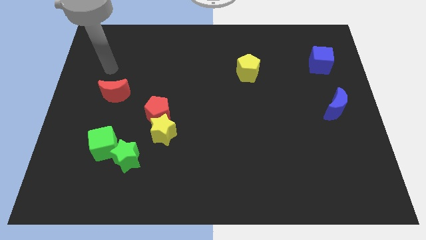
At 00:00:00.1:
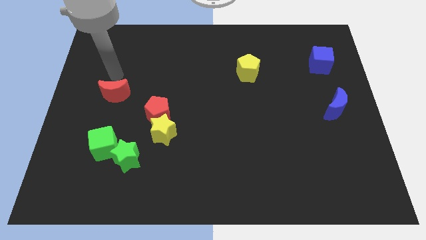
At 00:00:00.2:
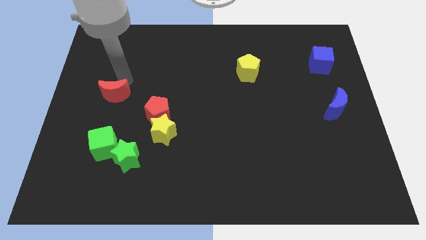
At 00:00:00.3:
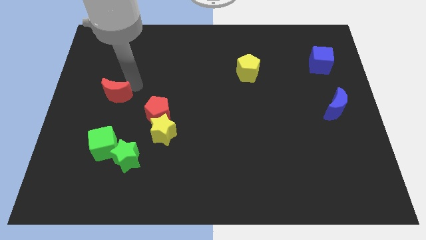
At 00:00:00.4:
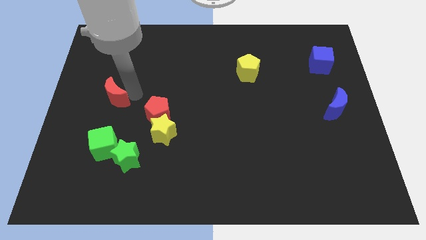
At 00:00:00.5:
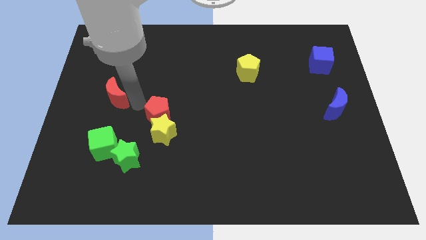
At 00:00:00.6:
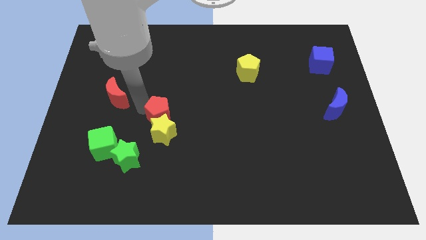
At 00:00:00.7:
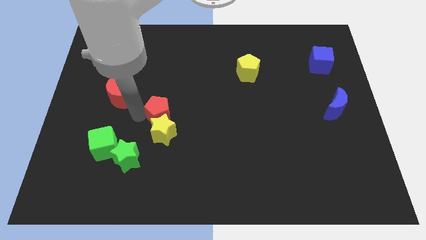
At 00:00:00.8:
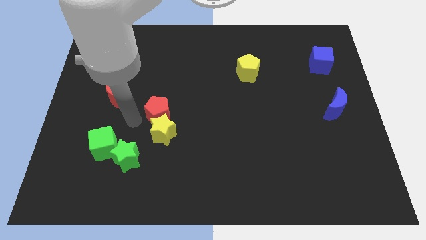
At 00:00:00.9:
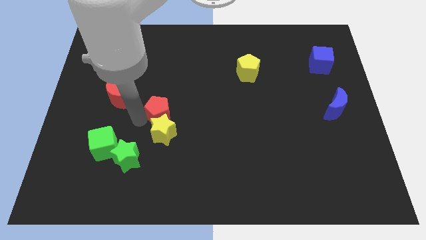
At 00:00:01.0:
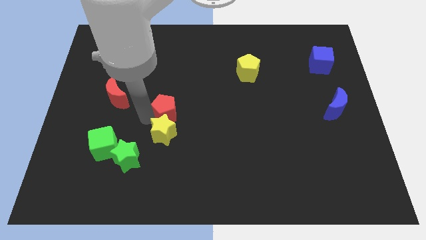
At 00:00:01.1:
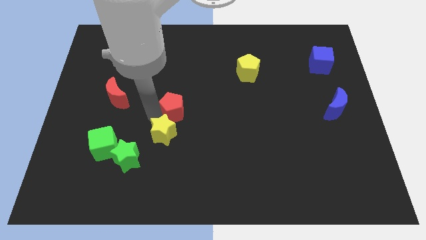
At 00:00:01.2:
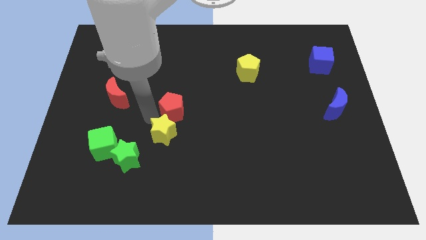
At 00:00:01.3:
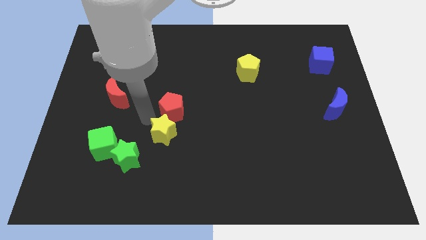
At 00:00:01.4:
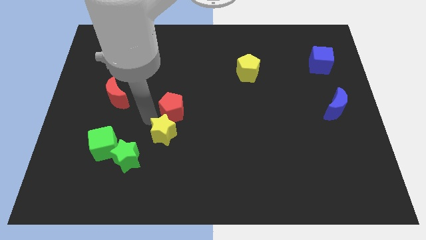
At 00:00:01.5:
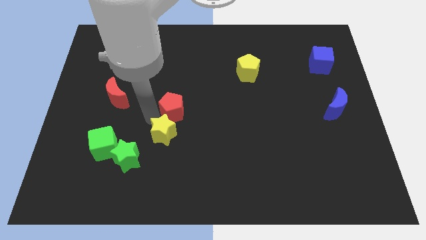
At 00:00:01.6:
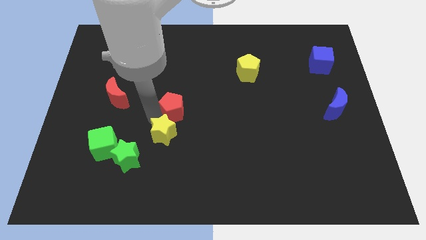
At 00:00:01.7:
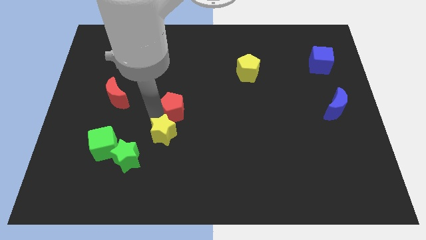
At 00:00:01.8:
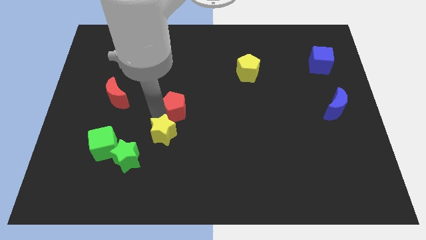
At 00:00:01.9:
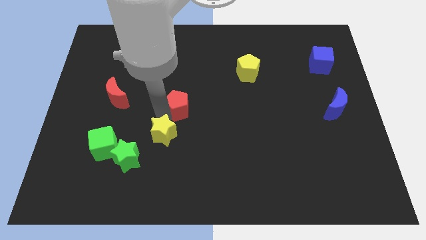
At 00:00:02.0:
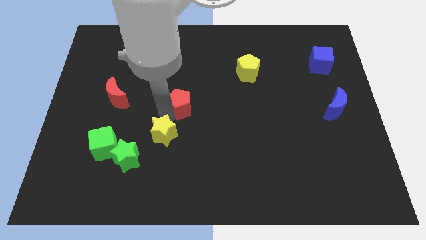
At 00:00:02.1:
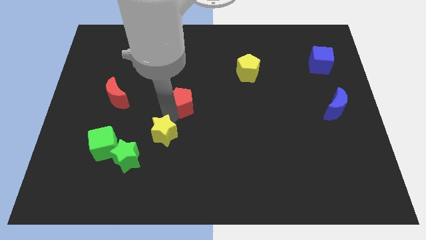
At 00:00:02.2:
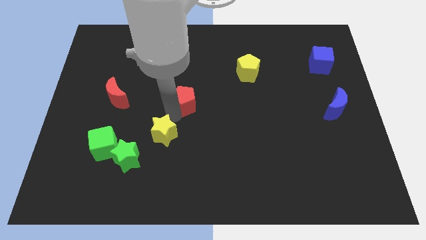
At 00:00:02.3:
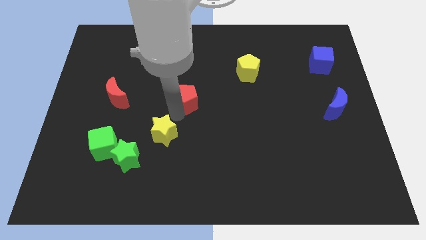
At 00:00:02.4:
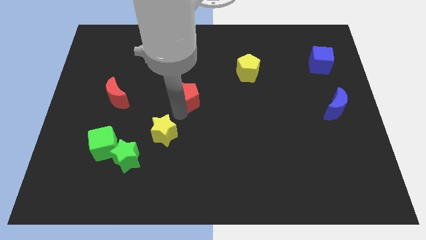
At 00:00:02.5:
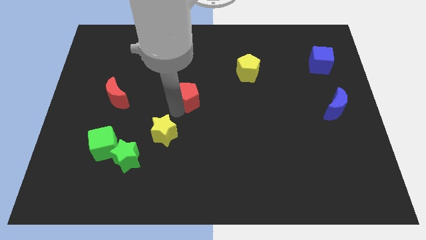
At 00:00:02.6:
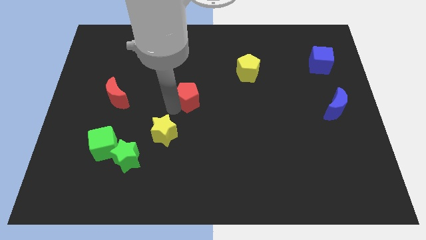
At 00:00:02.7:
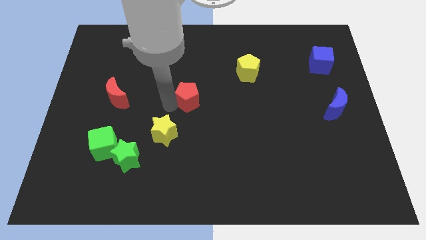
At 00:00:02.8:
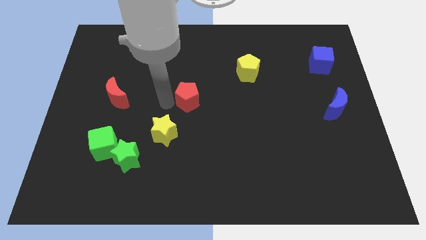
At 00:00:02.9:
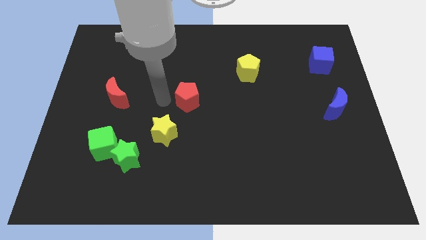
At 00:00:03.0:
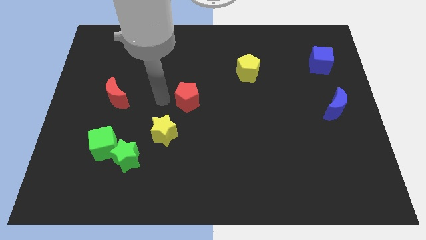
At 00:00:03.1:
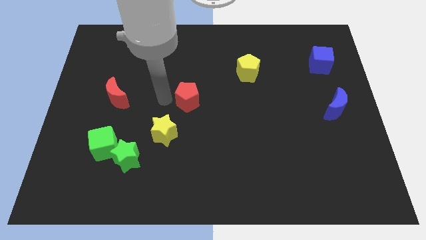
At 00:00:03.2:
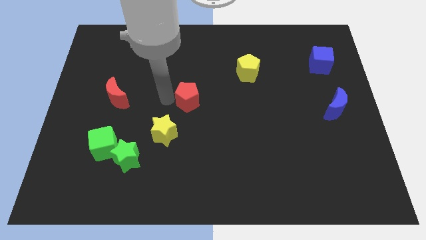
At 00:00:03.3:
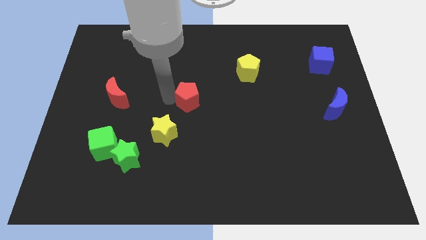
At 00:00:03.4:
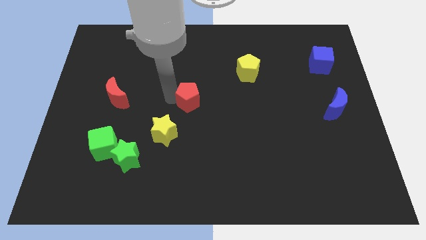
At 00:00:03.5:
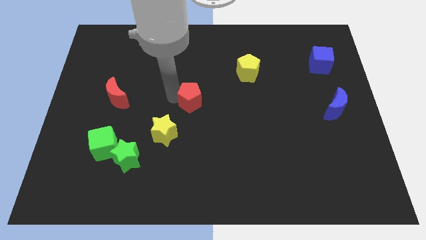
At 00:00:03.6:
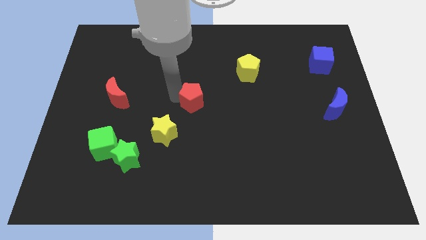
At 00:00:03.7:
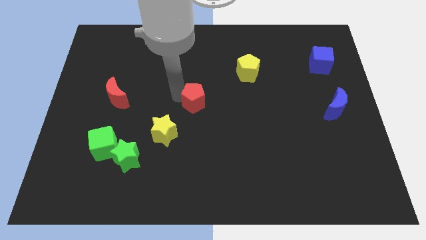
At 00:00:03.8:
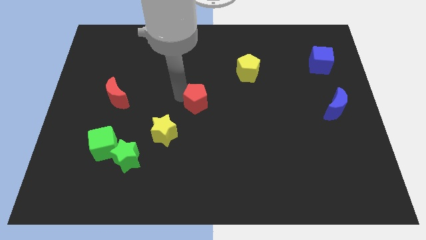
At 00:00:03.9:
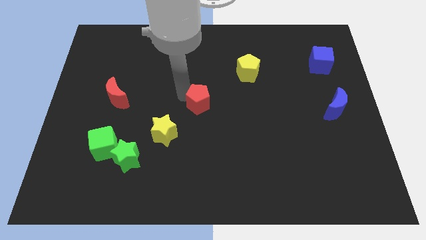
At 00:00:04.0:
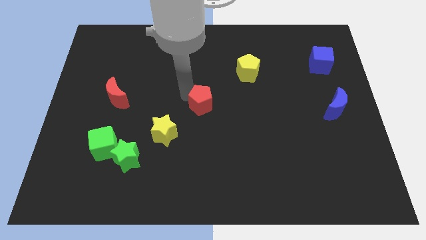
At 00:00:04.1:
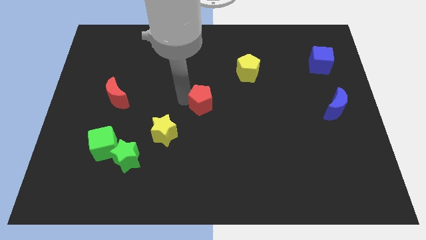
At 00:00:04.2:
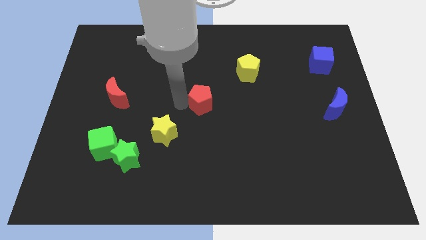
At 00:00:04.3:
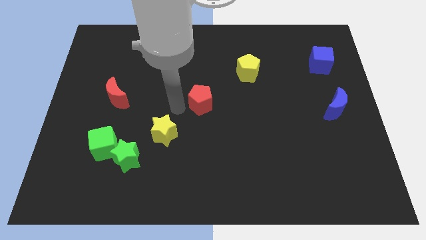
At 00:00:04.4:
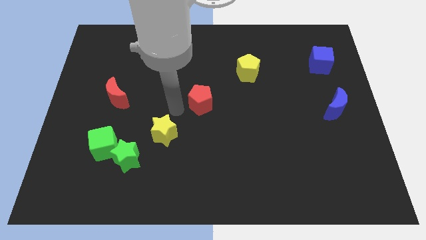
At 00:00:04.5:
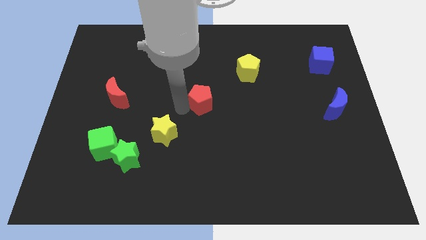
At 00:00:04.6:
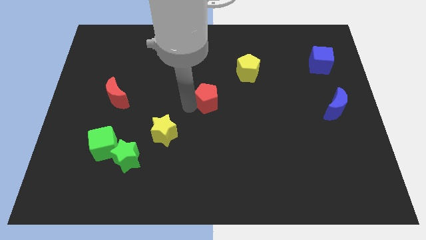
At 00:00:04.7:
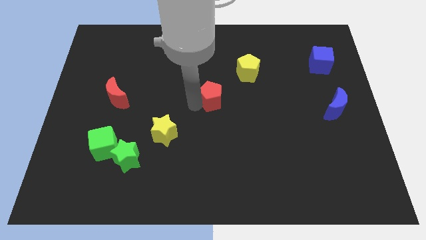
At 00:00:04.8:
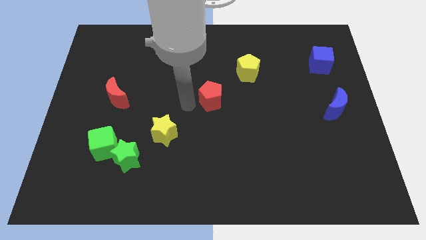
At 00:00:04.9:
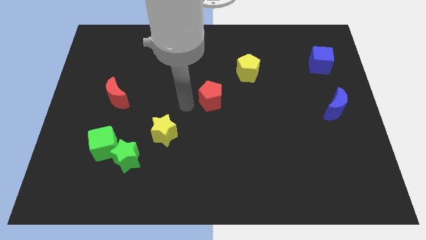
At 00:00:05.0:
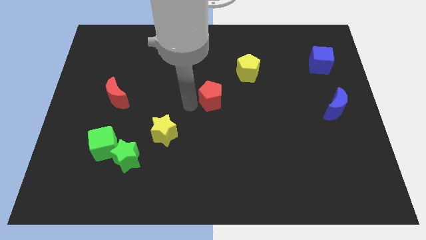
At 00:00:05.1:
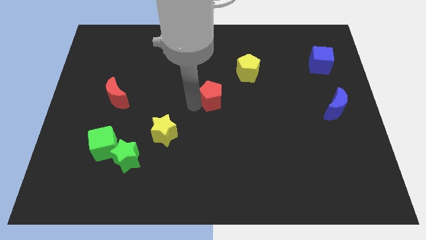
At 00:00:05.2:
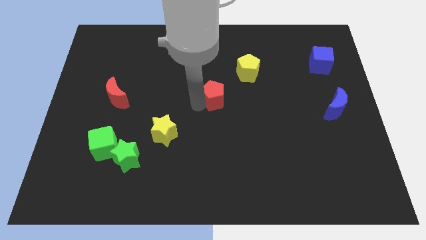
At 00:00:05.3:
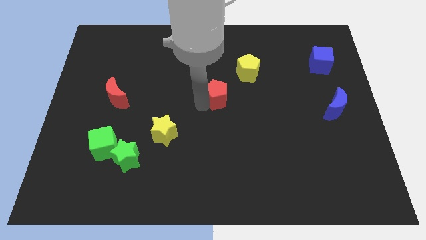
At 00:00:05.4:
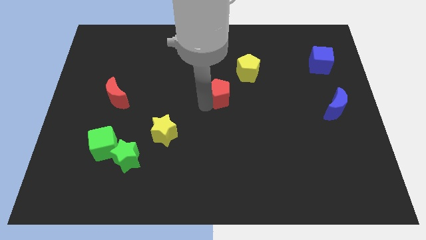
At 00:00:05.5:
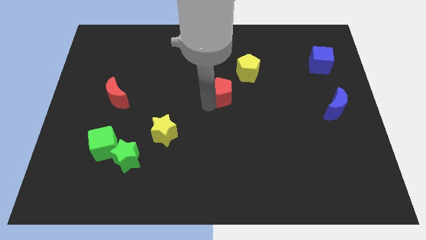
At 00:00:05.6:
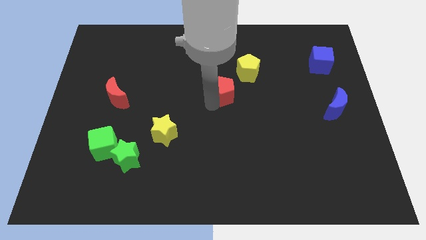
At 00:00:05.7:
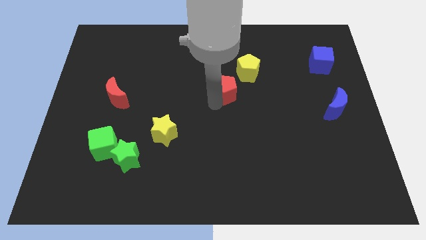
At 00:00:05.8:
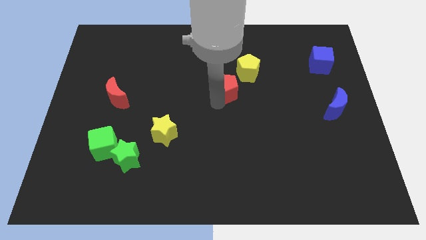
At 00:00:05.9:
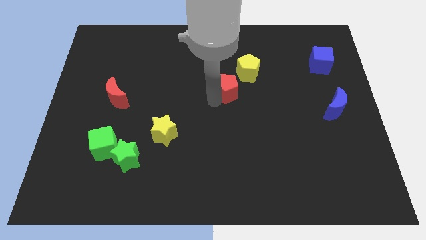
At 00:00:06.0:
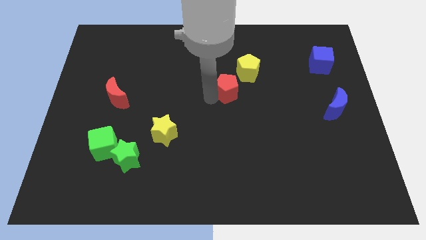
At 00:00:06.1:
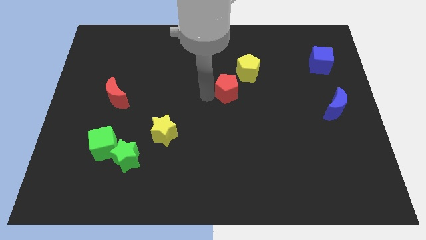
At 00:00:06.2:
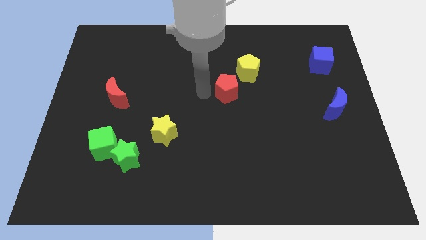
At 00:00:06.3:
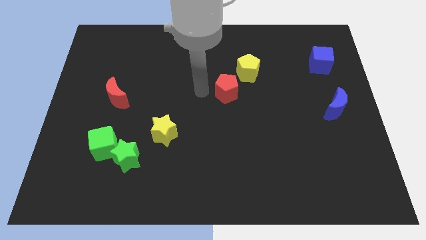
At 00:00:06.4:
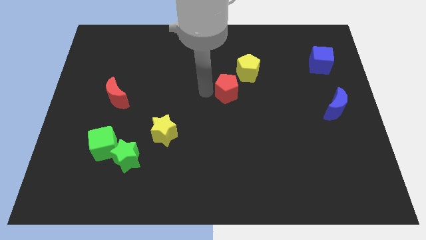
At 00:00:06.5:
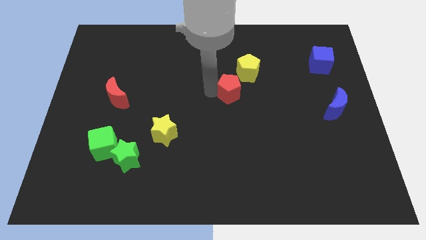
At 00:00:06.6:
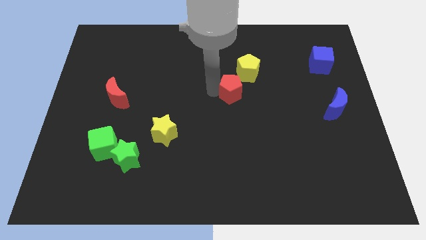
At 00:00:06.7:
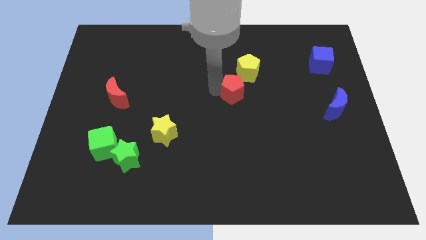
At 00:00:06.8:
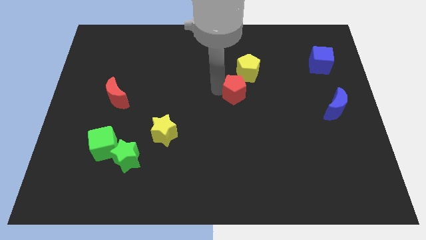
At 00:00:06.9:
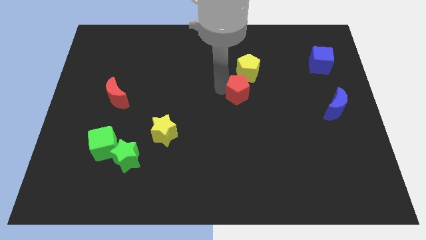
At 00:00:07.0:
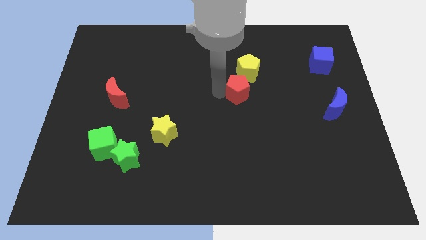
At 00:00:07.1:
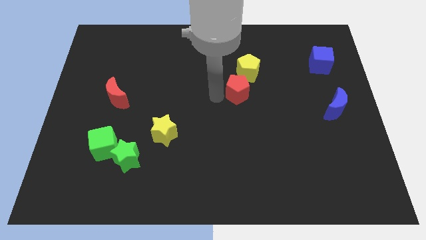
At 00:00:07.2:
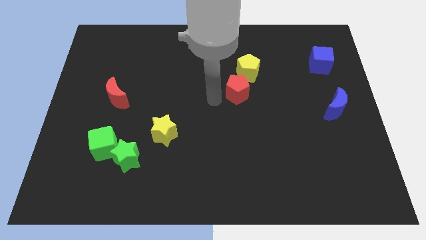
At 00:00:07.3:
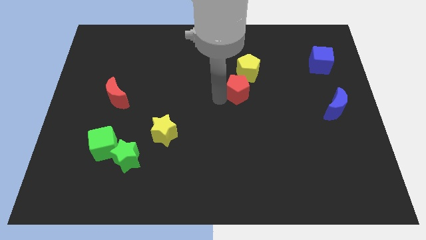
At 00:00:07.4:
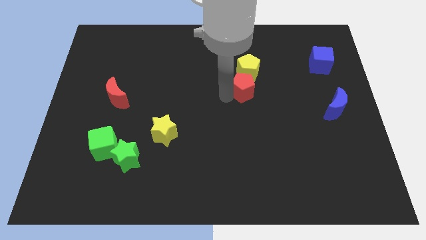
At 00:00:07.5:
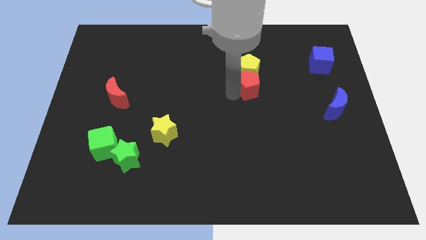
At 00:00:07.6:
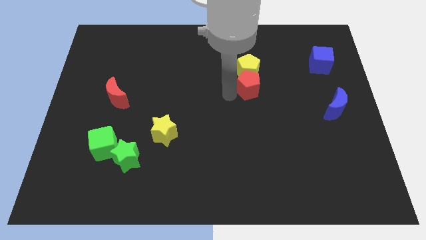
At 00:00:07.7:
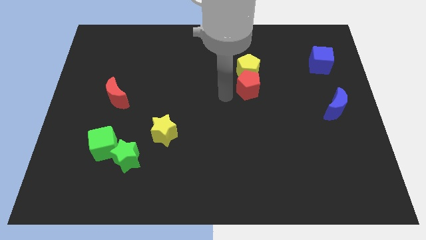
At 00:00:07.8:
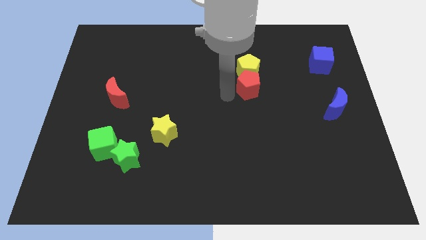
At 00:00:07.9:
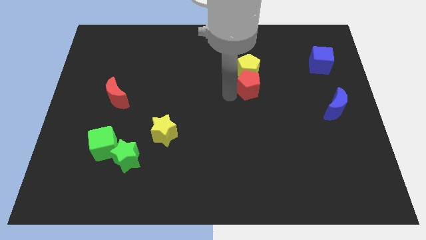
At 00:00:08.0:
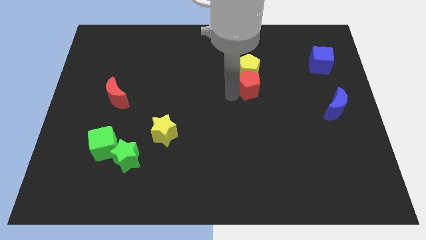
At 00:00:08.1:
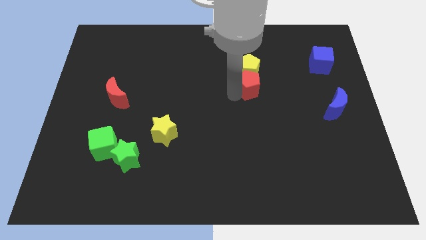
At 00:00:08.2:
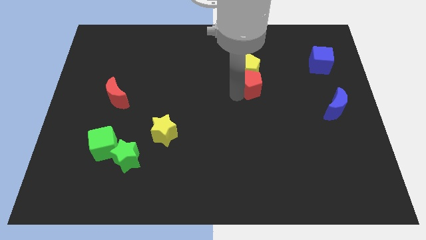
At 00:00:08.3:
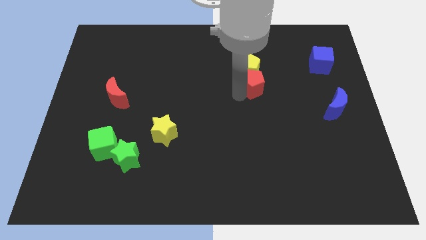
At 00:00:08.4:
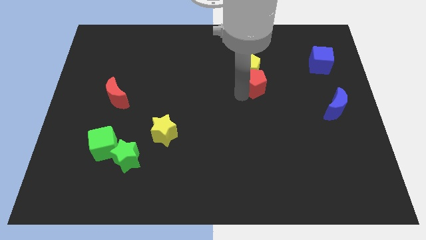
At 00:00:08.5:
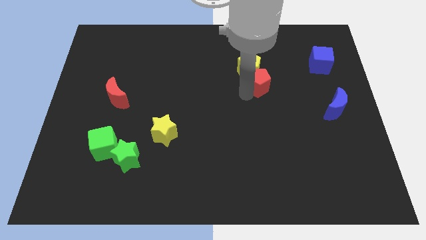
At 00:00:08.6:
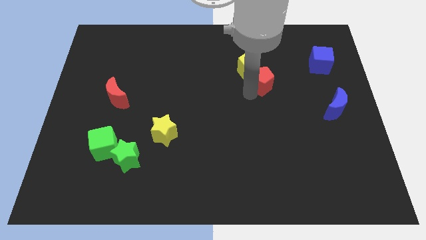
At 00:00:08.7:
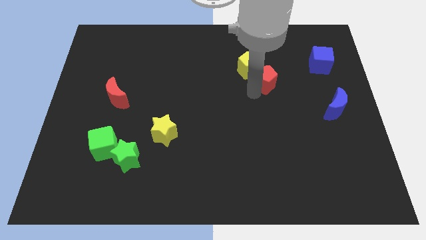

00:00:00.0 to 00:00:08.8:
move the red pentagon to the right of the yellow pentagon
